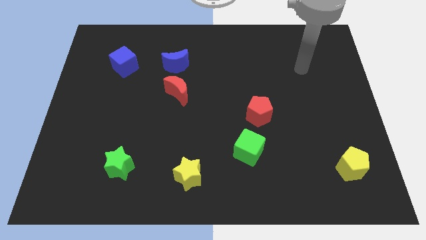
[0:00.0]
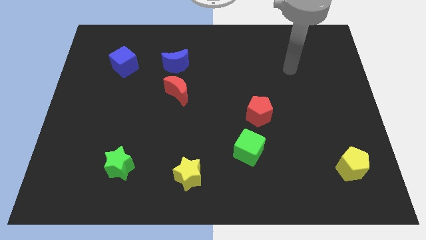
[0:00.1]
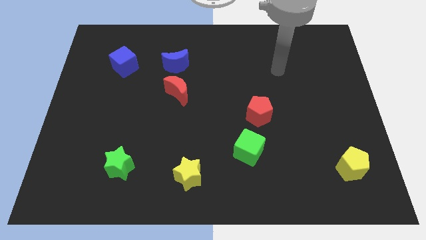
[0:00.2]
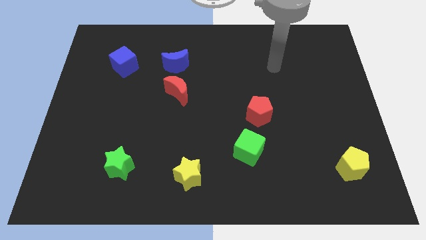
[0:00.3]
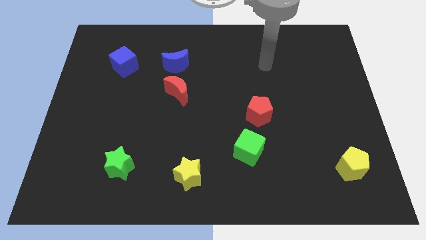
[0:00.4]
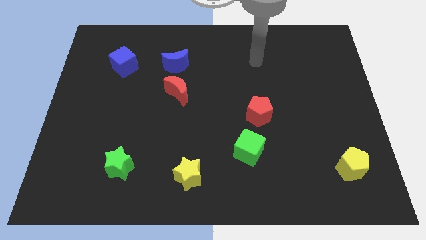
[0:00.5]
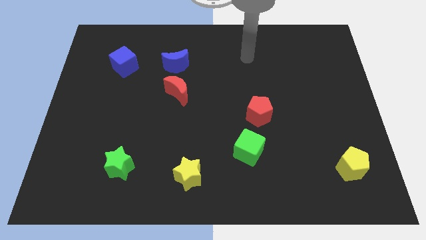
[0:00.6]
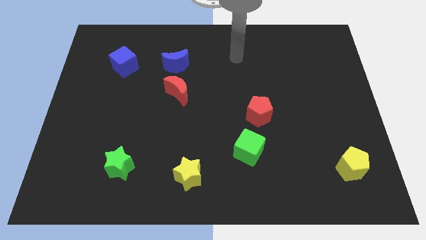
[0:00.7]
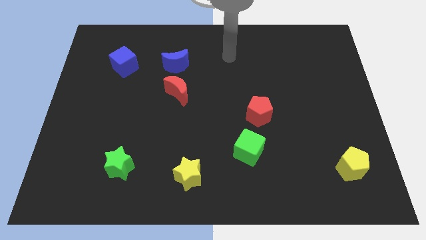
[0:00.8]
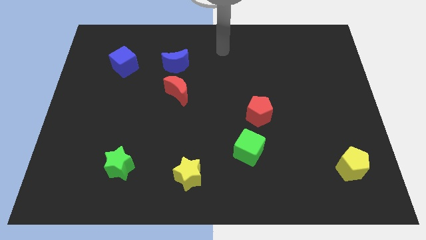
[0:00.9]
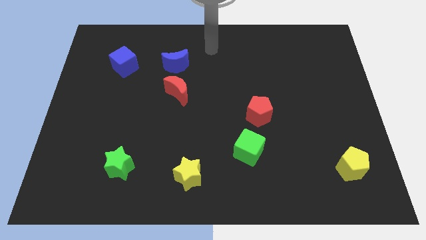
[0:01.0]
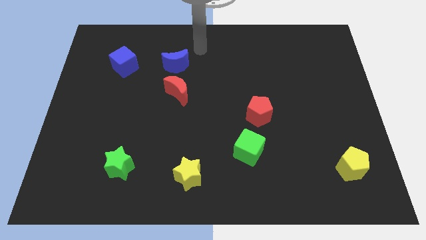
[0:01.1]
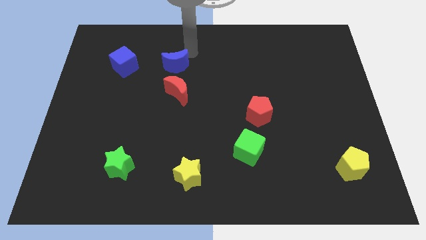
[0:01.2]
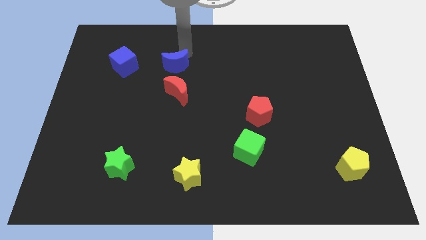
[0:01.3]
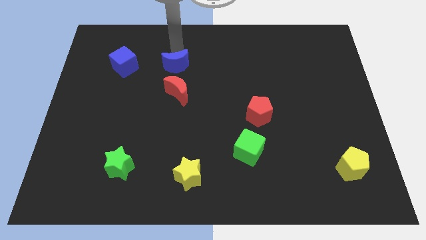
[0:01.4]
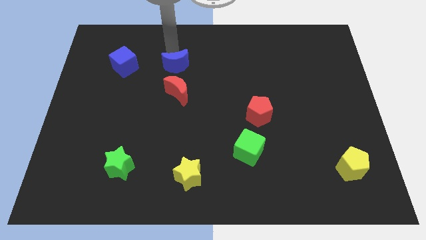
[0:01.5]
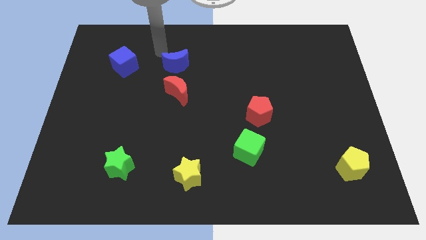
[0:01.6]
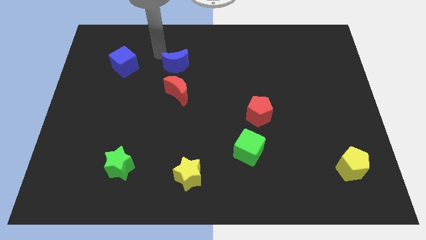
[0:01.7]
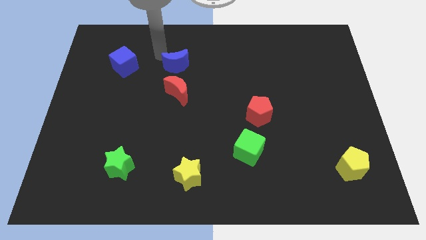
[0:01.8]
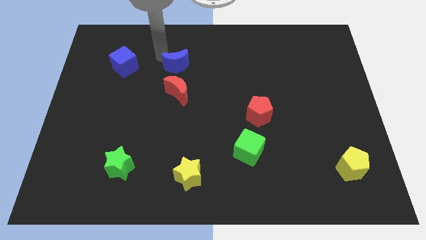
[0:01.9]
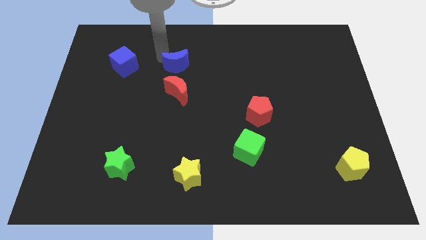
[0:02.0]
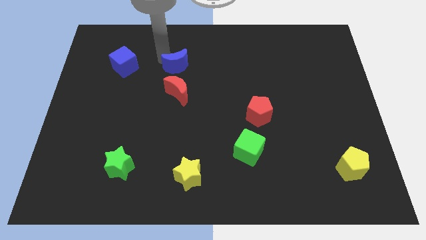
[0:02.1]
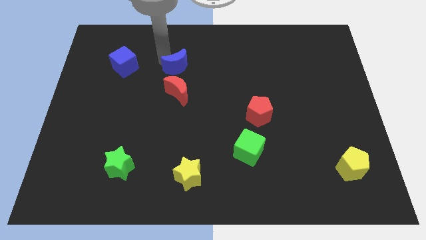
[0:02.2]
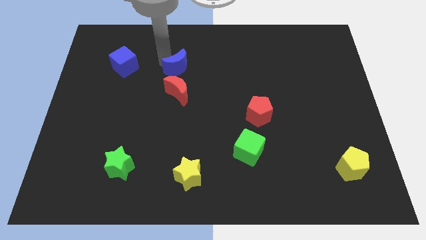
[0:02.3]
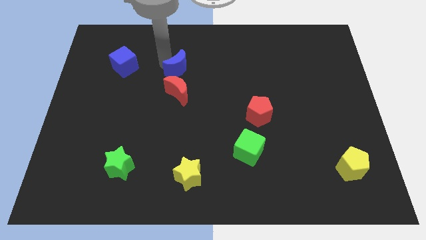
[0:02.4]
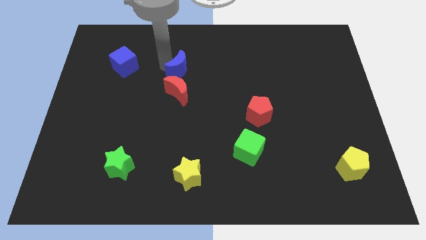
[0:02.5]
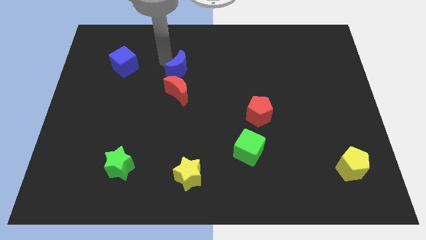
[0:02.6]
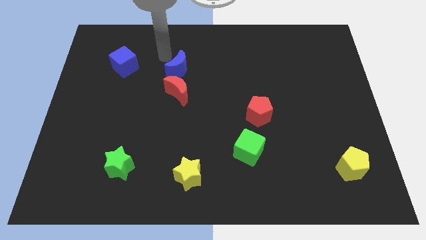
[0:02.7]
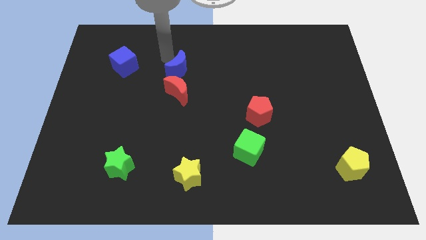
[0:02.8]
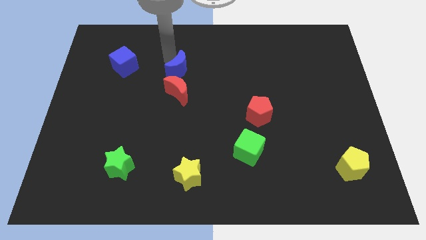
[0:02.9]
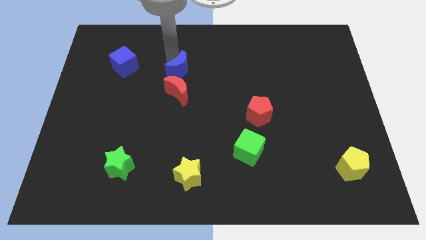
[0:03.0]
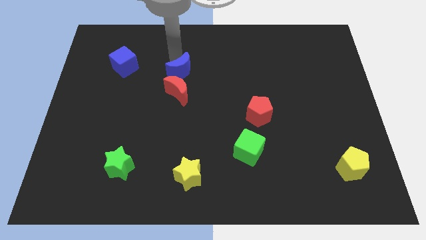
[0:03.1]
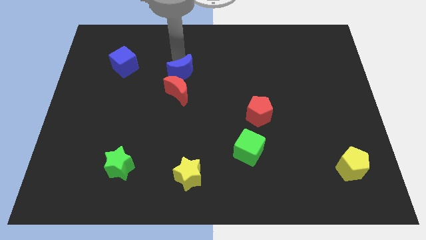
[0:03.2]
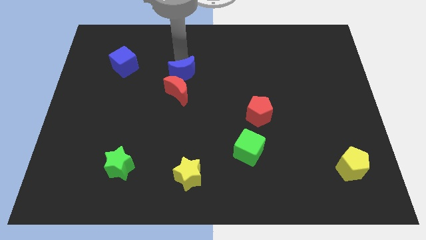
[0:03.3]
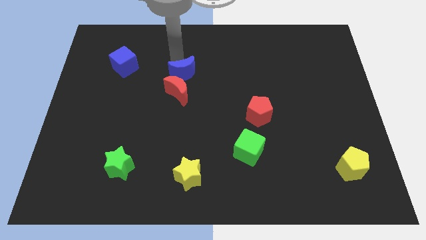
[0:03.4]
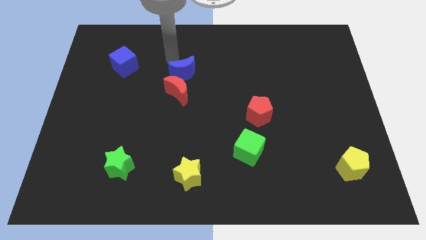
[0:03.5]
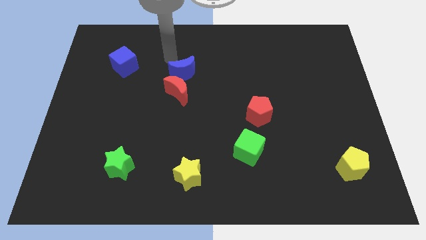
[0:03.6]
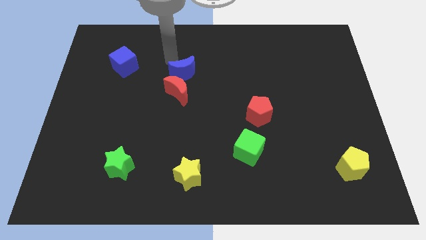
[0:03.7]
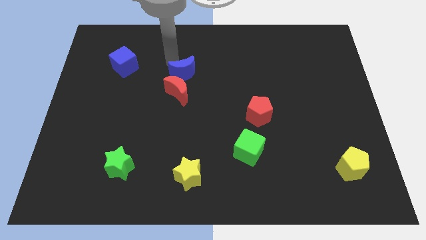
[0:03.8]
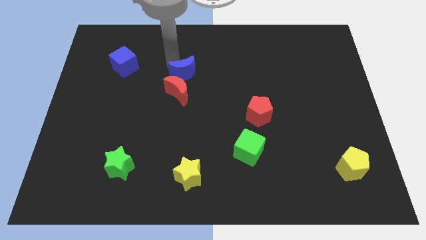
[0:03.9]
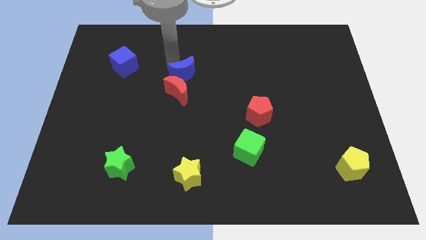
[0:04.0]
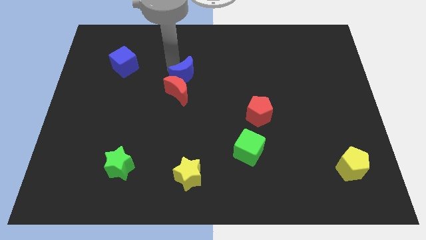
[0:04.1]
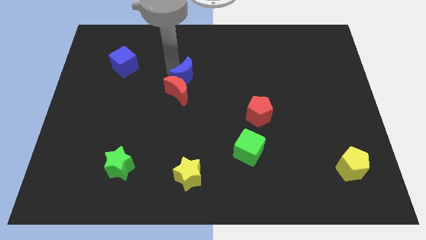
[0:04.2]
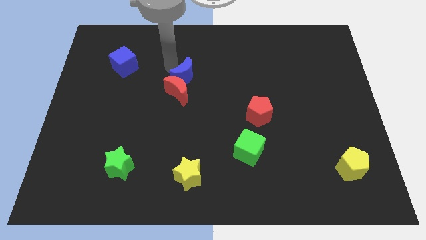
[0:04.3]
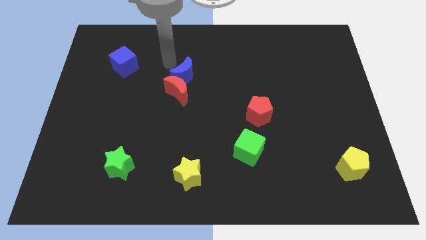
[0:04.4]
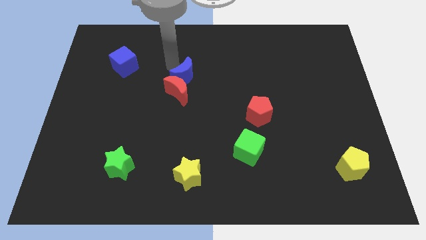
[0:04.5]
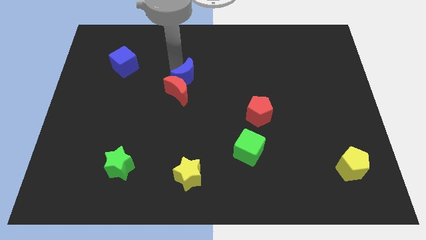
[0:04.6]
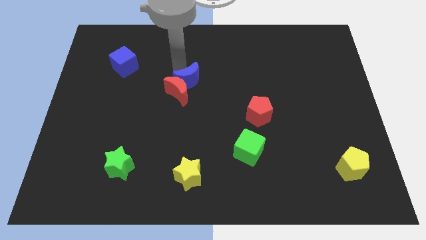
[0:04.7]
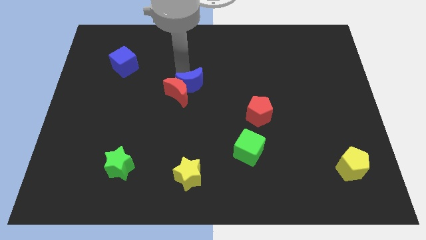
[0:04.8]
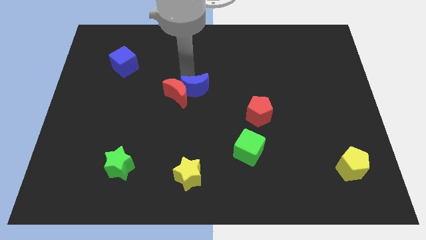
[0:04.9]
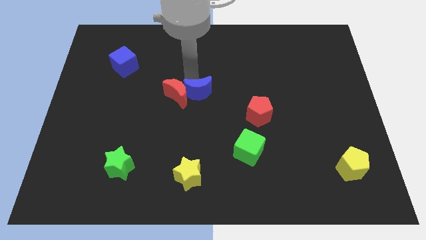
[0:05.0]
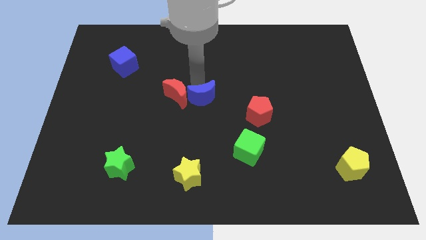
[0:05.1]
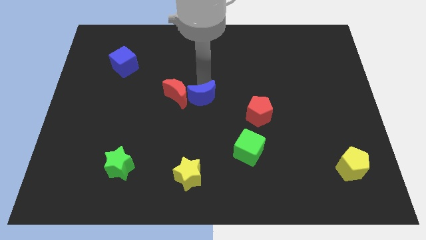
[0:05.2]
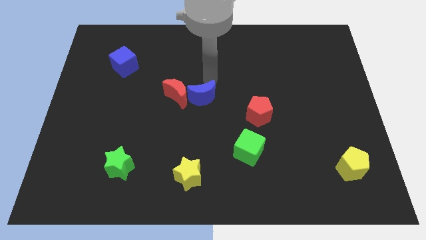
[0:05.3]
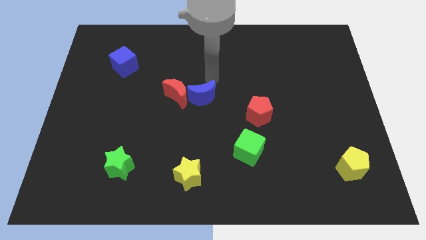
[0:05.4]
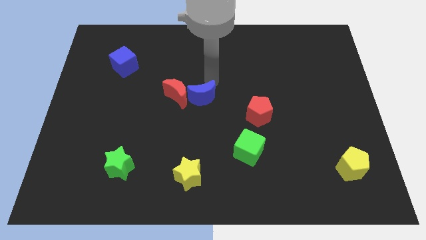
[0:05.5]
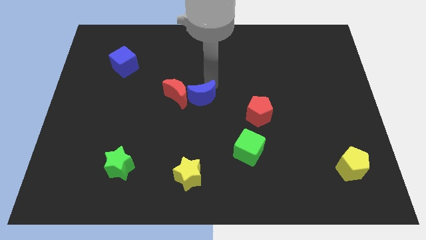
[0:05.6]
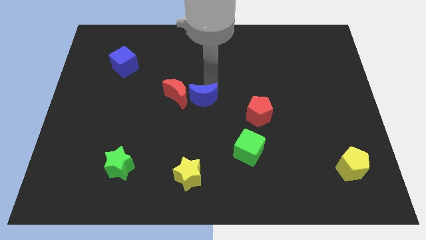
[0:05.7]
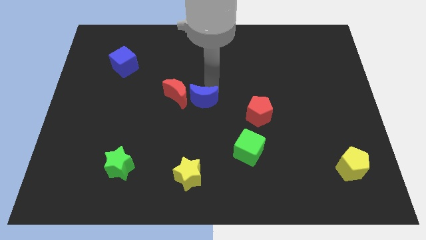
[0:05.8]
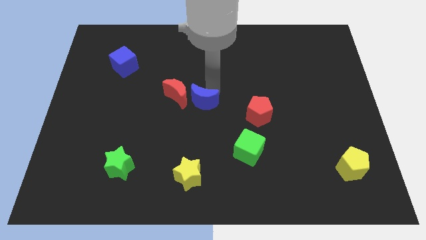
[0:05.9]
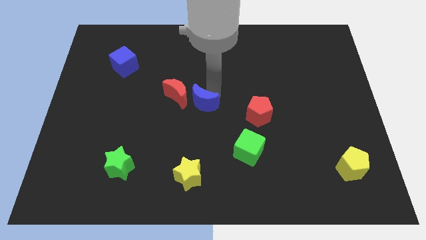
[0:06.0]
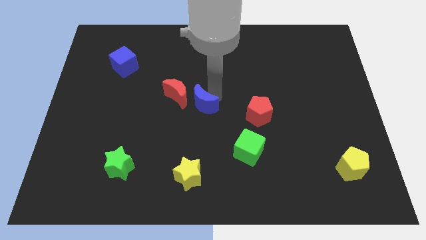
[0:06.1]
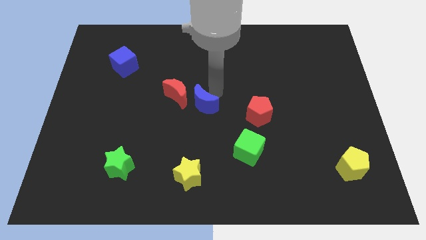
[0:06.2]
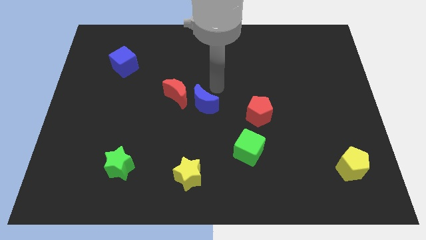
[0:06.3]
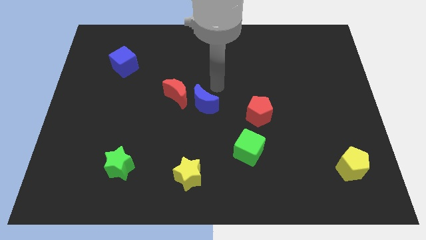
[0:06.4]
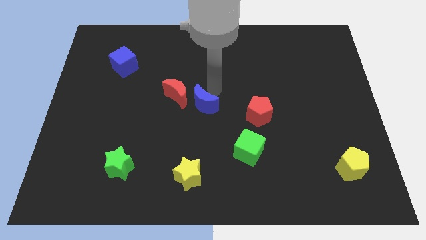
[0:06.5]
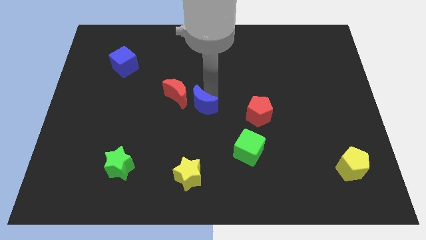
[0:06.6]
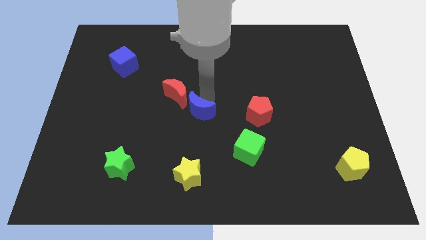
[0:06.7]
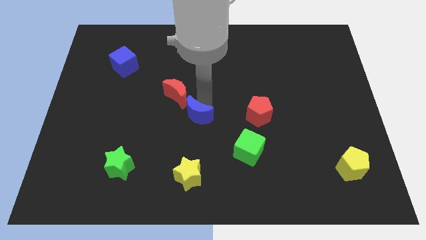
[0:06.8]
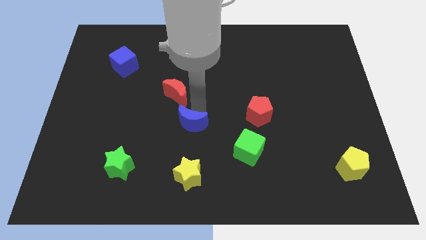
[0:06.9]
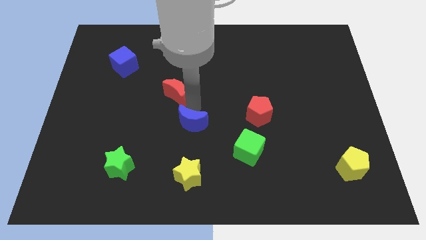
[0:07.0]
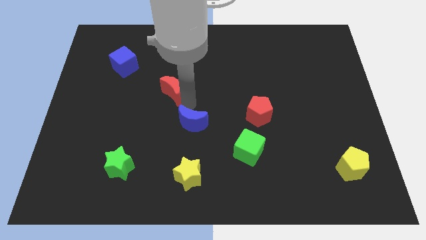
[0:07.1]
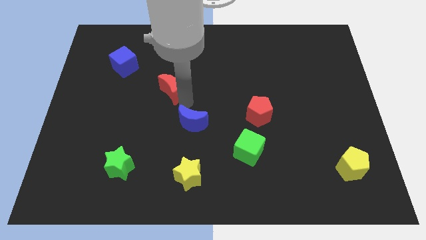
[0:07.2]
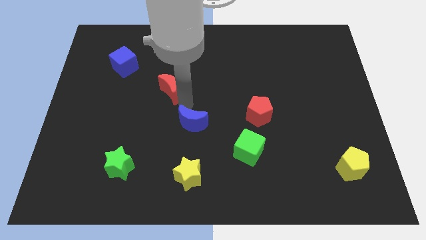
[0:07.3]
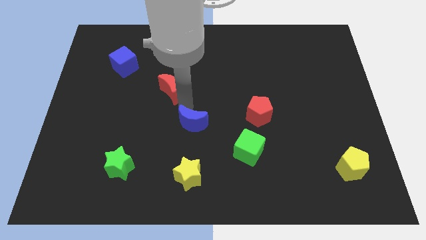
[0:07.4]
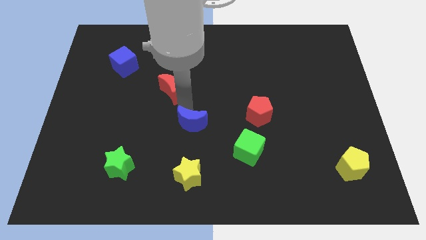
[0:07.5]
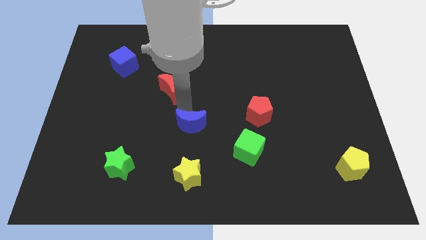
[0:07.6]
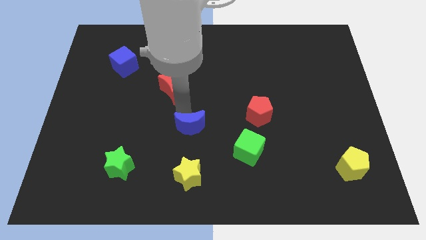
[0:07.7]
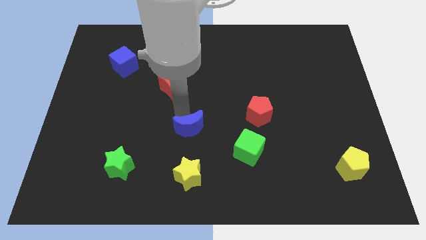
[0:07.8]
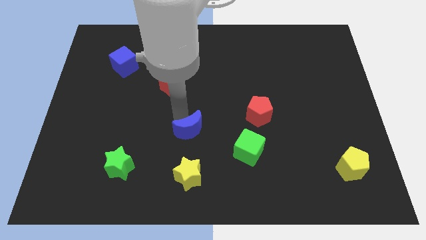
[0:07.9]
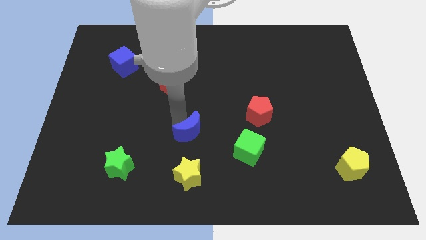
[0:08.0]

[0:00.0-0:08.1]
move the blue moon left of the green cube
